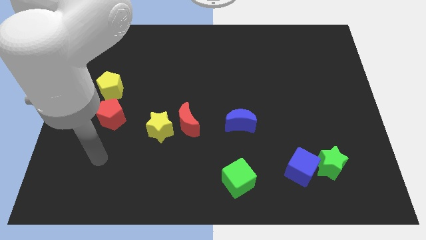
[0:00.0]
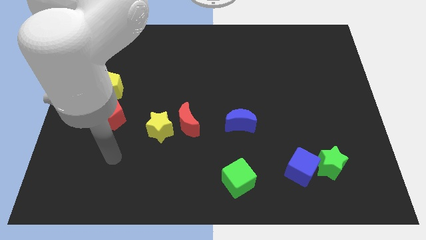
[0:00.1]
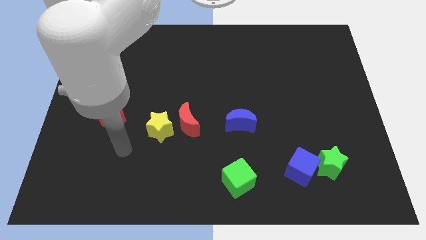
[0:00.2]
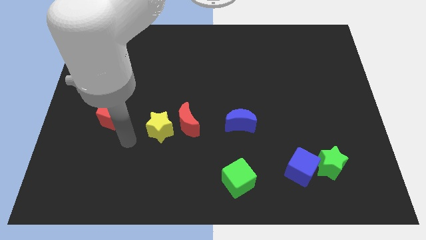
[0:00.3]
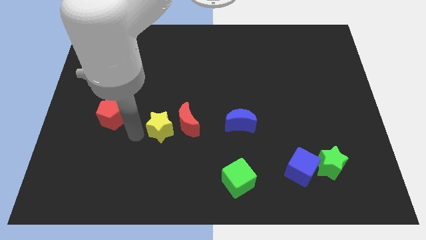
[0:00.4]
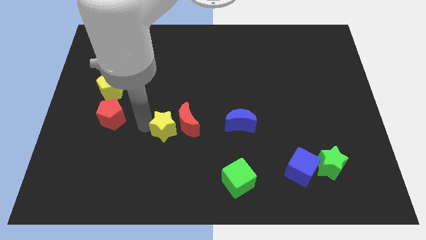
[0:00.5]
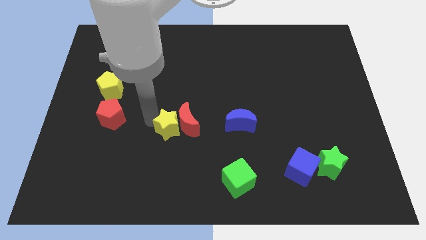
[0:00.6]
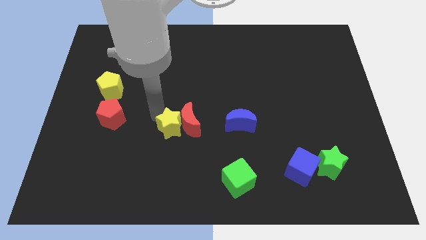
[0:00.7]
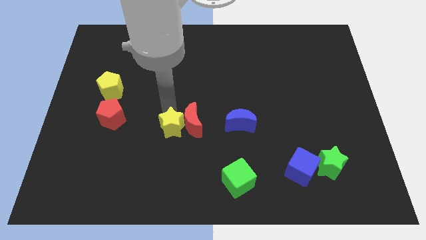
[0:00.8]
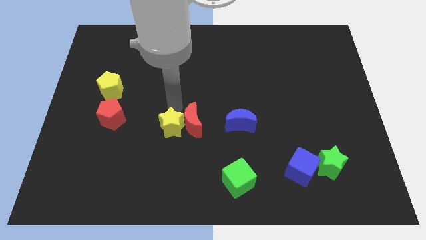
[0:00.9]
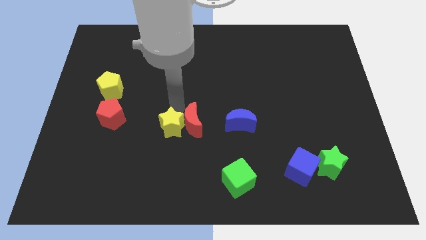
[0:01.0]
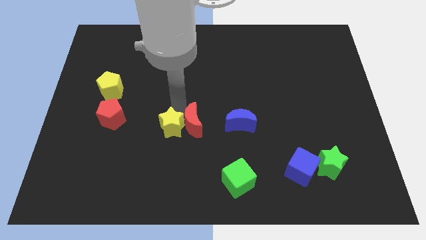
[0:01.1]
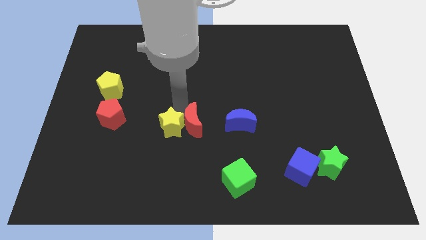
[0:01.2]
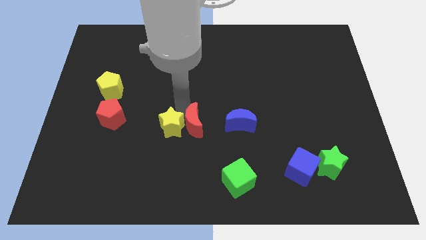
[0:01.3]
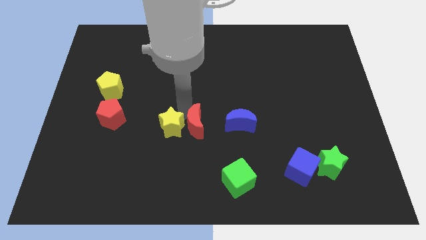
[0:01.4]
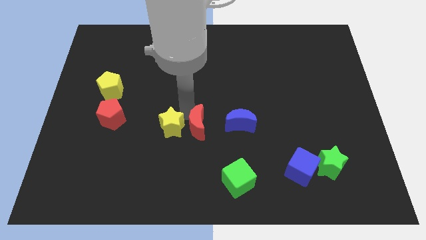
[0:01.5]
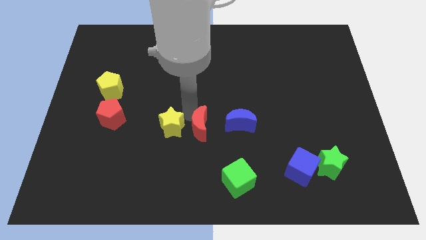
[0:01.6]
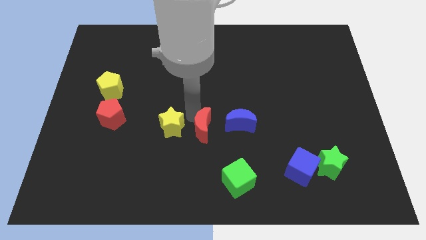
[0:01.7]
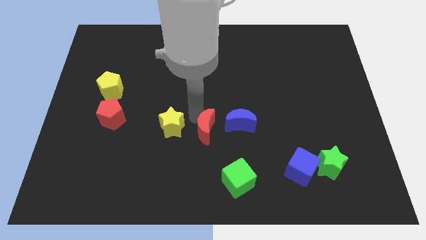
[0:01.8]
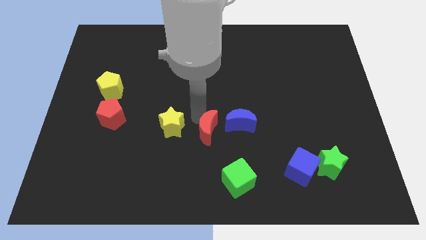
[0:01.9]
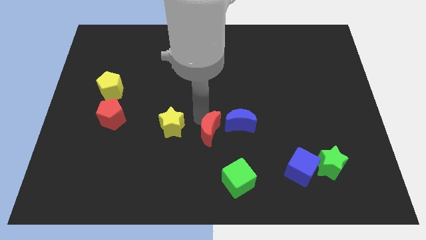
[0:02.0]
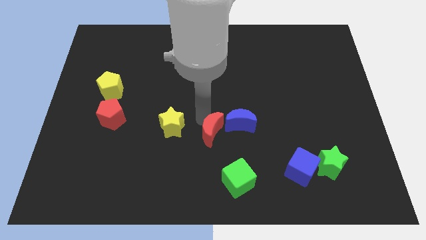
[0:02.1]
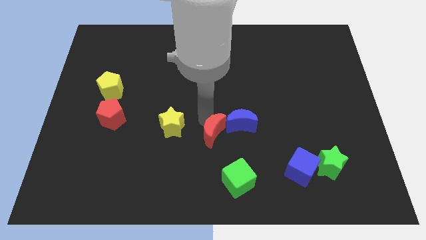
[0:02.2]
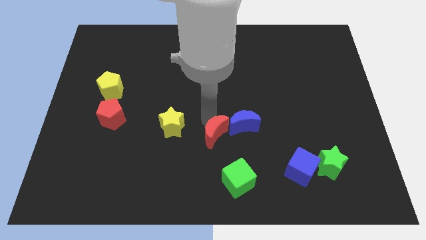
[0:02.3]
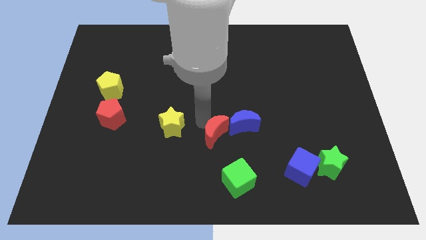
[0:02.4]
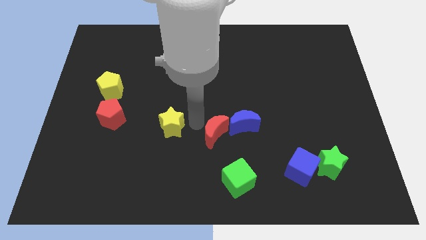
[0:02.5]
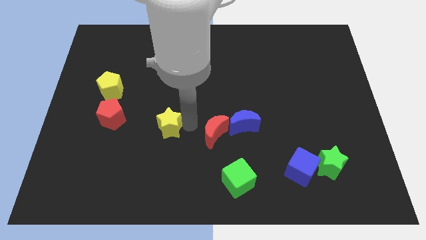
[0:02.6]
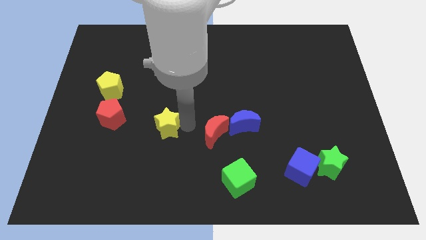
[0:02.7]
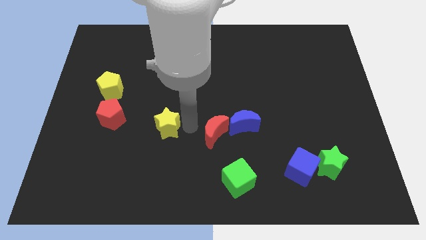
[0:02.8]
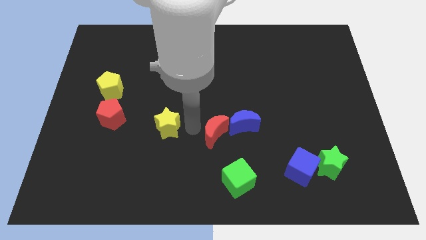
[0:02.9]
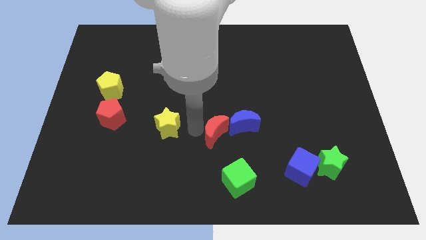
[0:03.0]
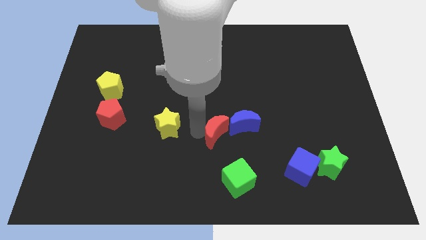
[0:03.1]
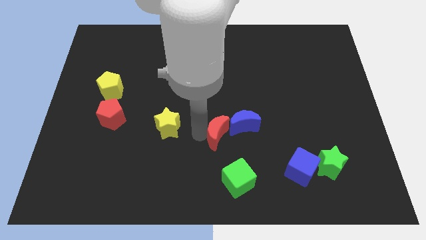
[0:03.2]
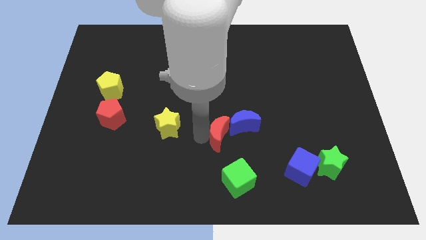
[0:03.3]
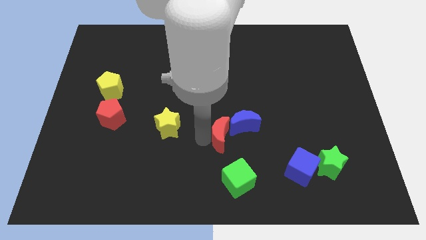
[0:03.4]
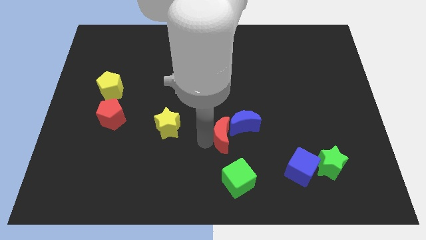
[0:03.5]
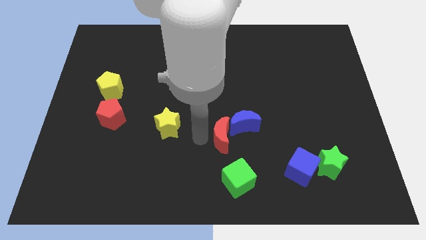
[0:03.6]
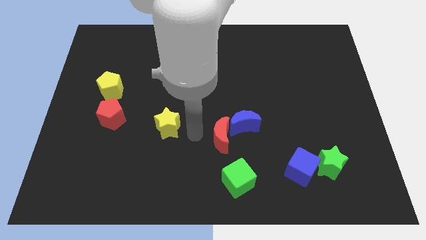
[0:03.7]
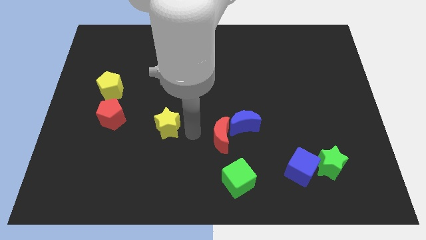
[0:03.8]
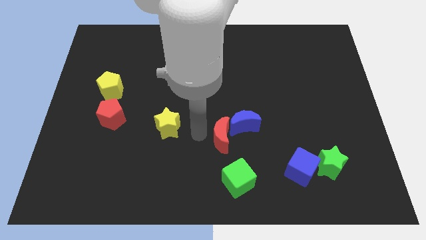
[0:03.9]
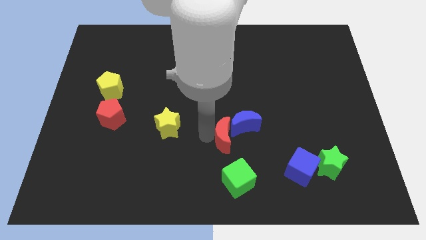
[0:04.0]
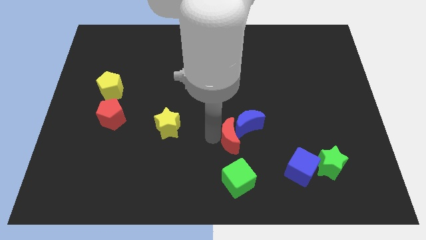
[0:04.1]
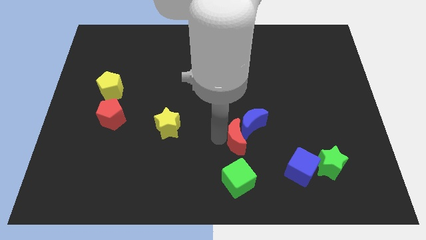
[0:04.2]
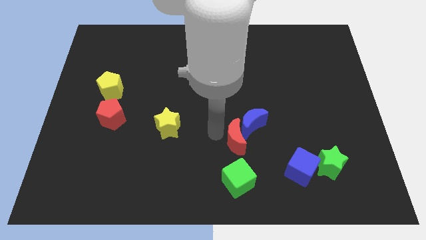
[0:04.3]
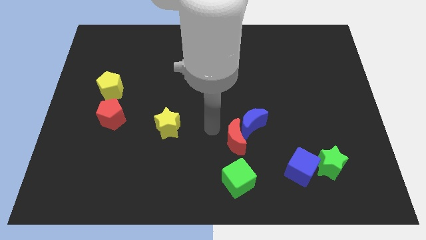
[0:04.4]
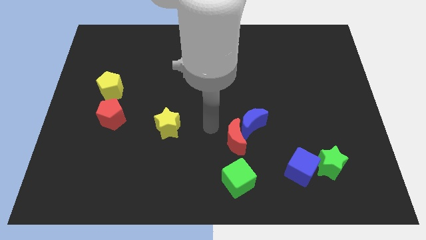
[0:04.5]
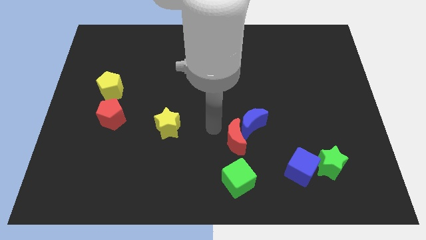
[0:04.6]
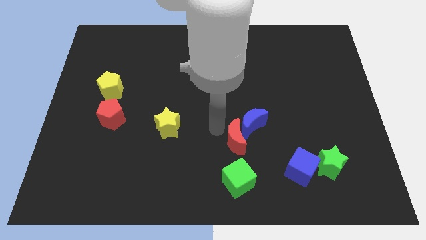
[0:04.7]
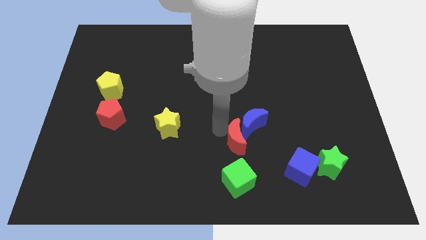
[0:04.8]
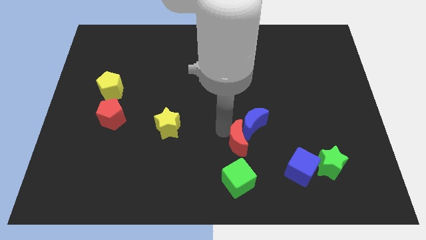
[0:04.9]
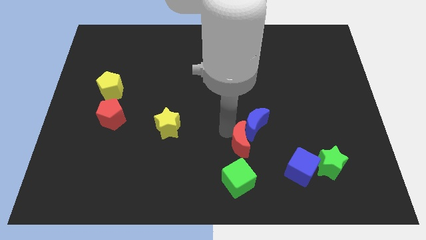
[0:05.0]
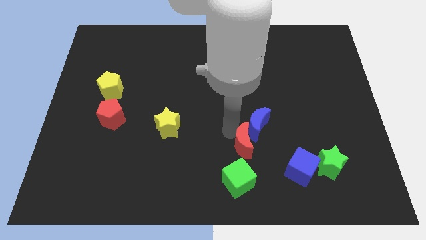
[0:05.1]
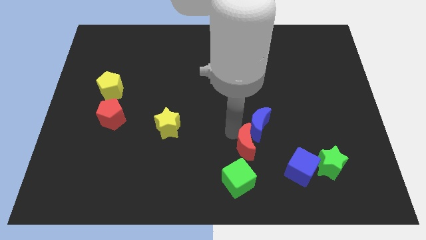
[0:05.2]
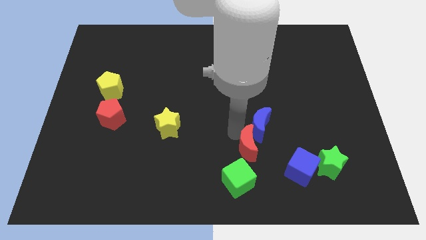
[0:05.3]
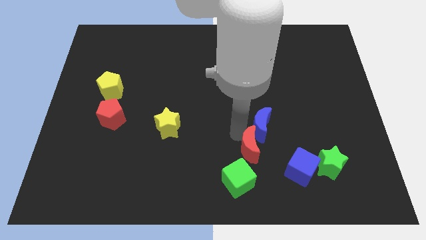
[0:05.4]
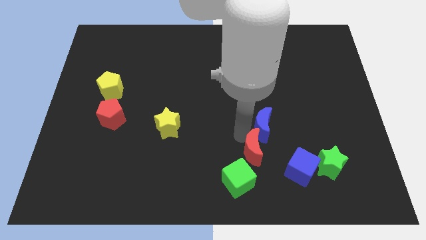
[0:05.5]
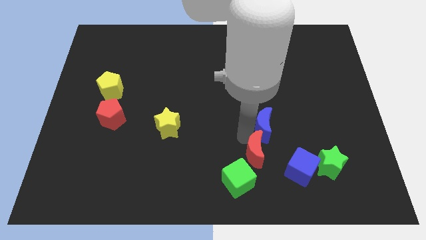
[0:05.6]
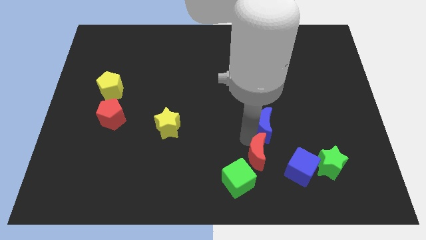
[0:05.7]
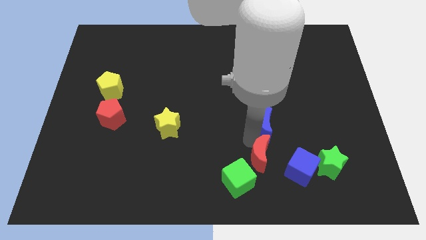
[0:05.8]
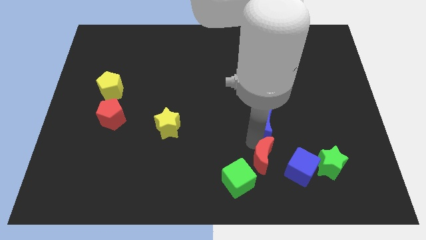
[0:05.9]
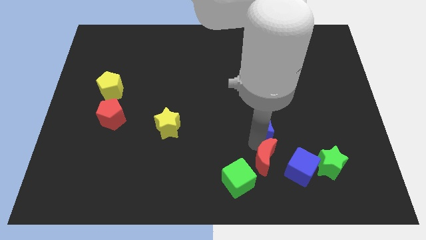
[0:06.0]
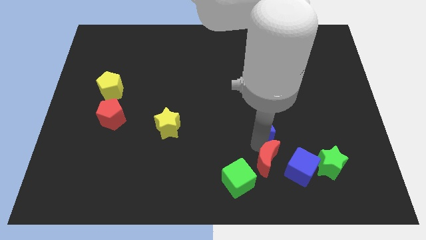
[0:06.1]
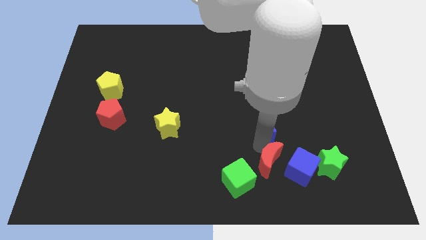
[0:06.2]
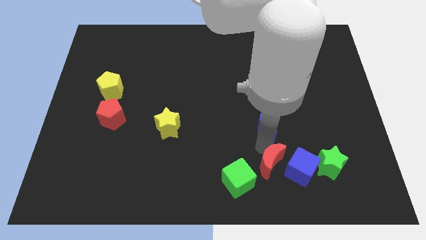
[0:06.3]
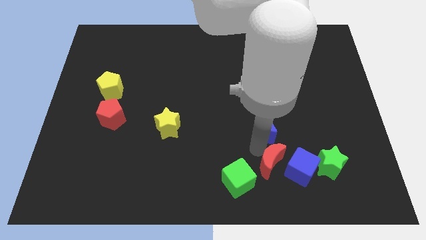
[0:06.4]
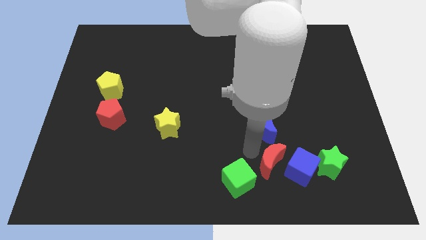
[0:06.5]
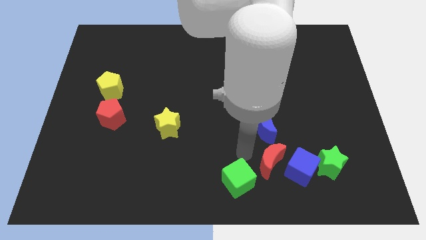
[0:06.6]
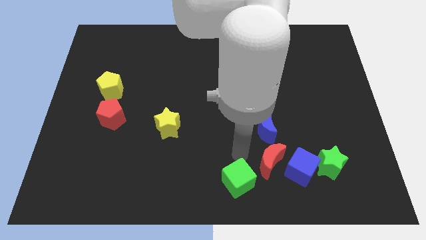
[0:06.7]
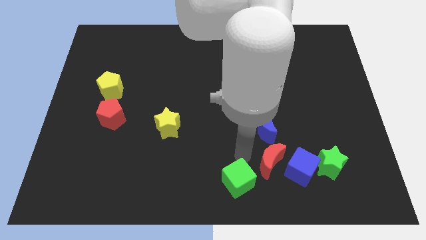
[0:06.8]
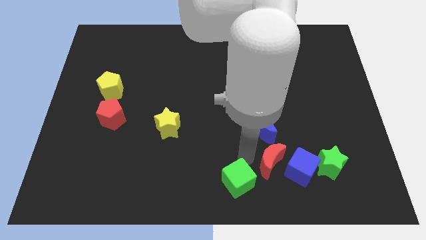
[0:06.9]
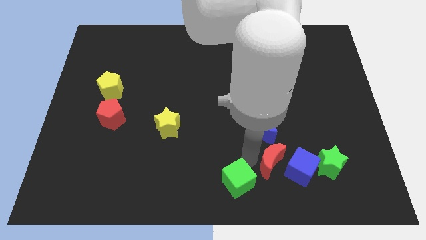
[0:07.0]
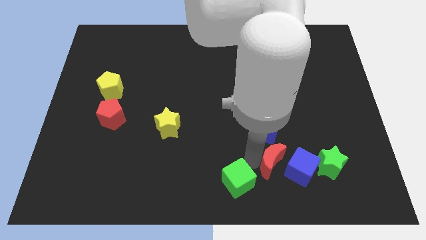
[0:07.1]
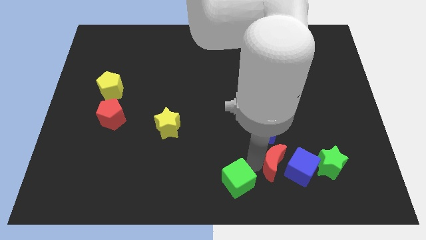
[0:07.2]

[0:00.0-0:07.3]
put the red moon to the blue cube
